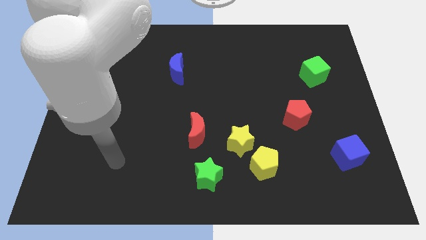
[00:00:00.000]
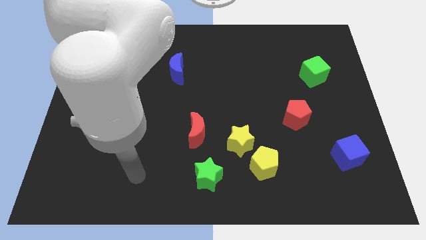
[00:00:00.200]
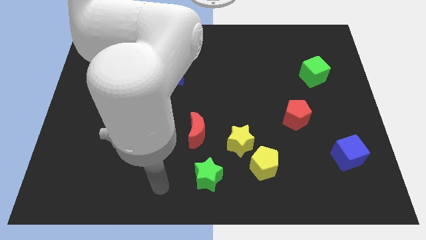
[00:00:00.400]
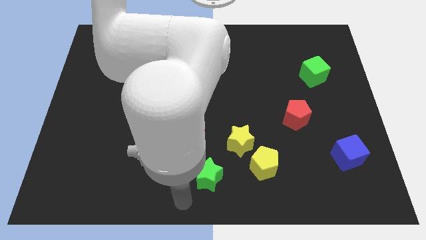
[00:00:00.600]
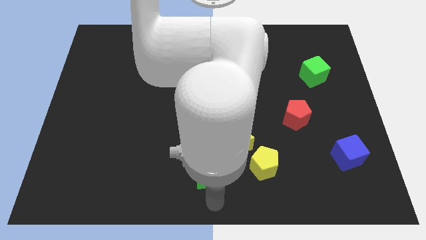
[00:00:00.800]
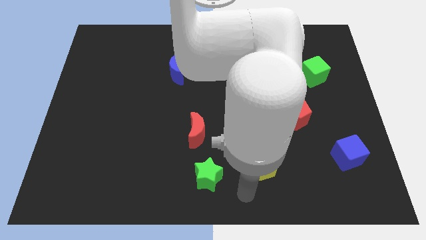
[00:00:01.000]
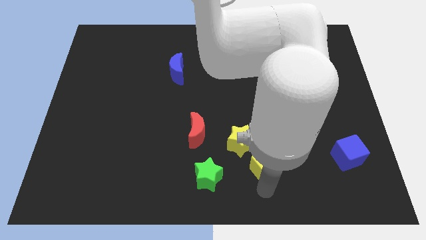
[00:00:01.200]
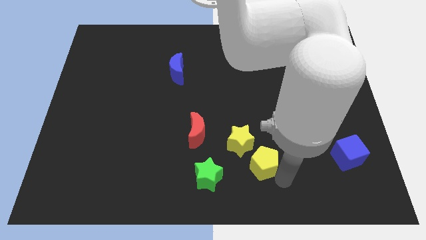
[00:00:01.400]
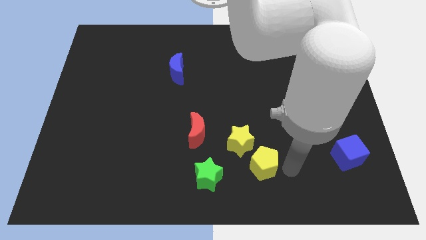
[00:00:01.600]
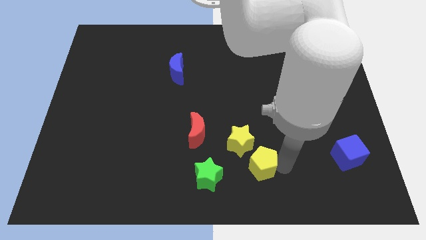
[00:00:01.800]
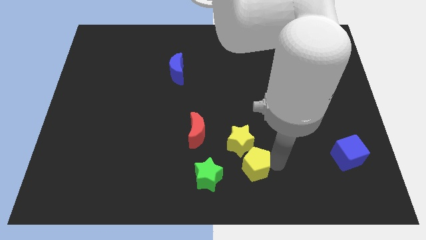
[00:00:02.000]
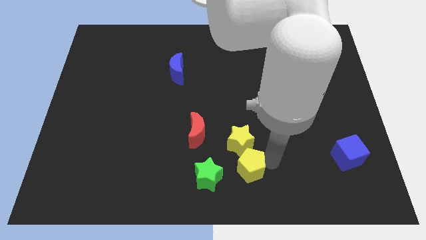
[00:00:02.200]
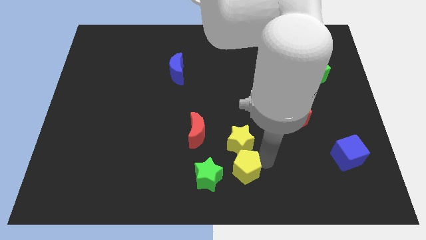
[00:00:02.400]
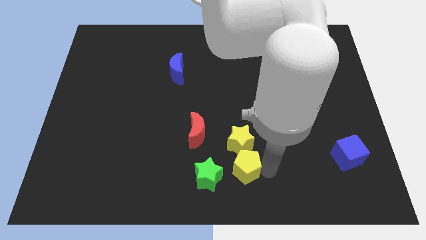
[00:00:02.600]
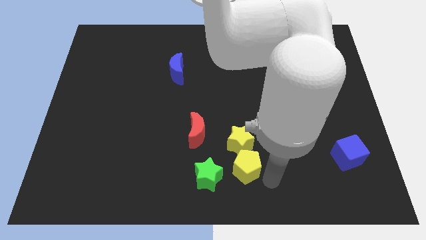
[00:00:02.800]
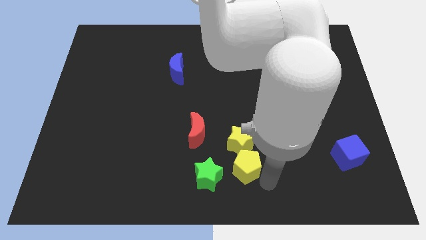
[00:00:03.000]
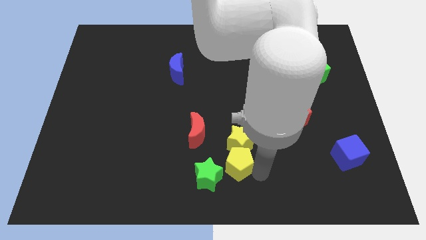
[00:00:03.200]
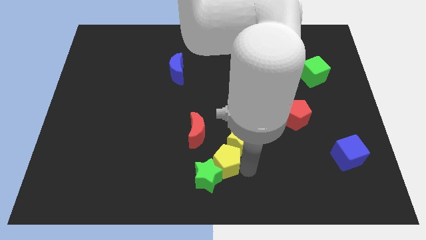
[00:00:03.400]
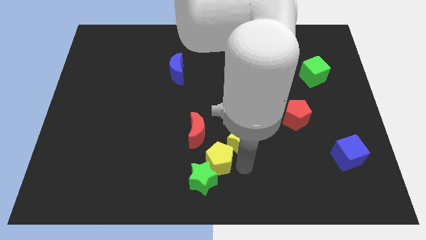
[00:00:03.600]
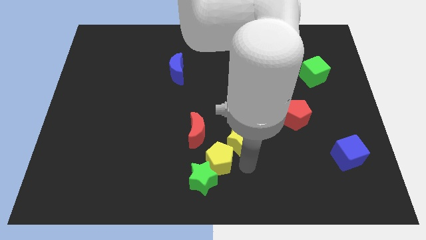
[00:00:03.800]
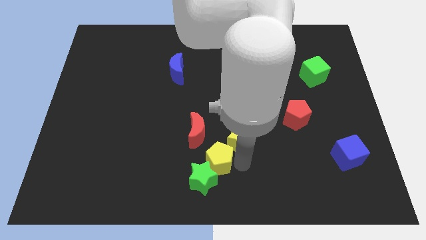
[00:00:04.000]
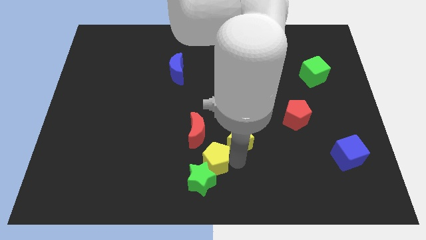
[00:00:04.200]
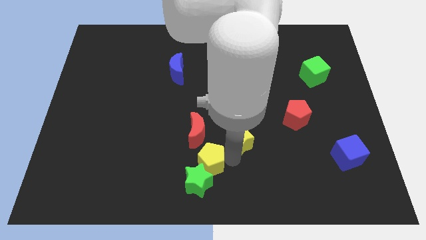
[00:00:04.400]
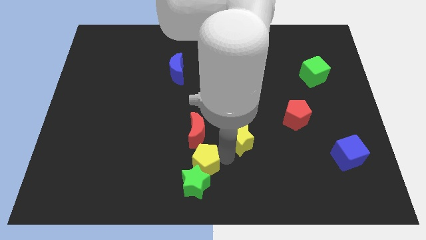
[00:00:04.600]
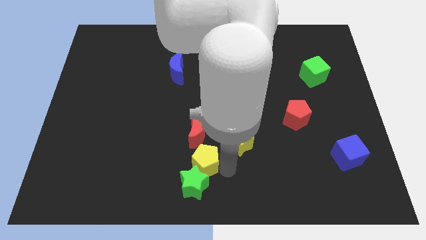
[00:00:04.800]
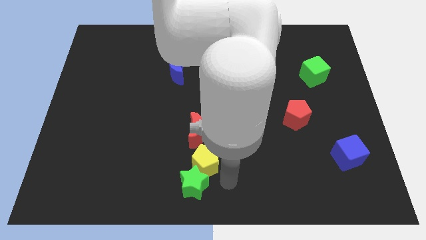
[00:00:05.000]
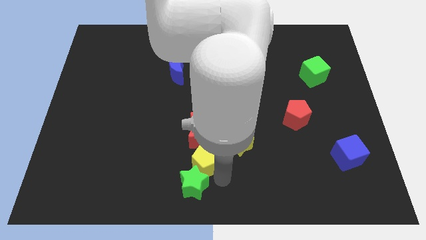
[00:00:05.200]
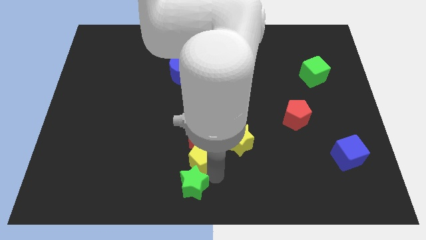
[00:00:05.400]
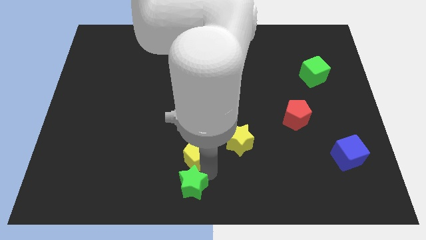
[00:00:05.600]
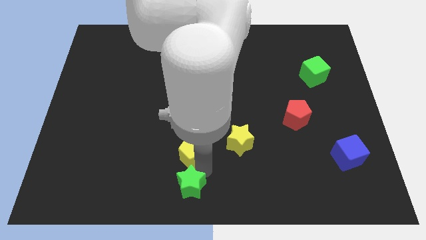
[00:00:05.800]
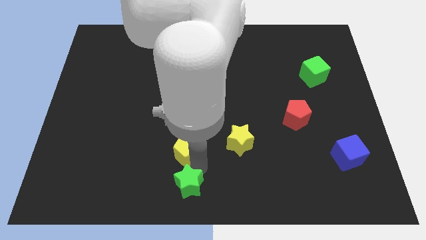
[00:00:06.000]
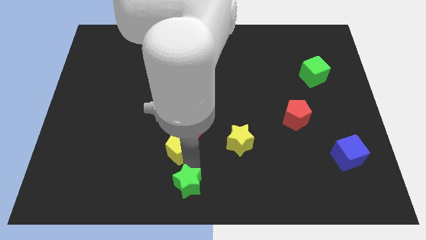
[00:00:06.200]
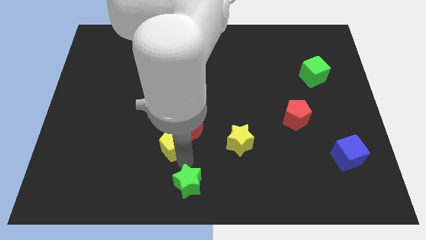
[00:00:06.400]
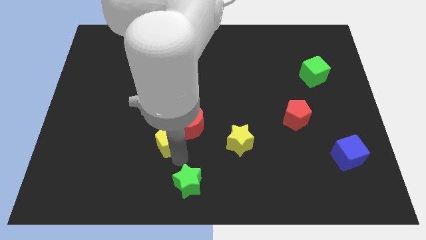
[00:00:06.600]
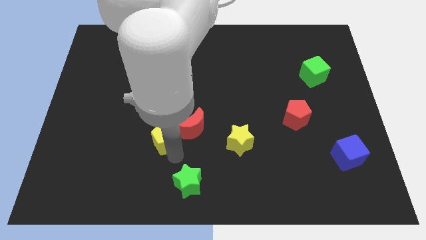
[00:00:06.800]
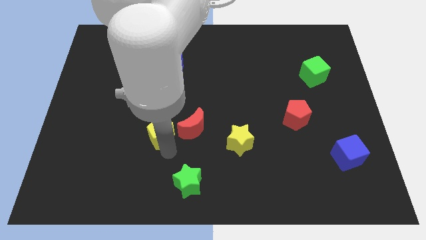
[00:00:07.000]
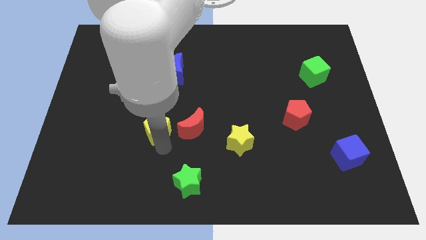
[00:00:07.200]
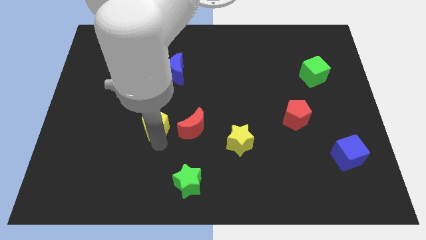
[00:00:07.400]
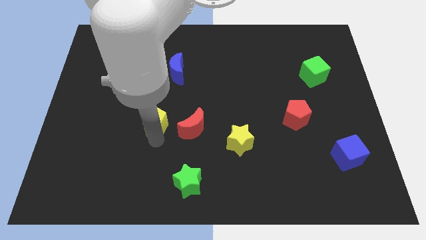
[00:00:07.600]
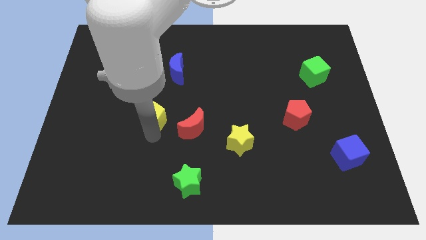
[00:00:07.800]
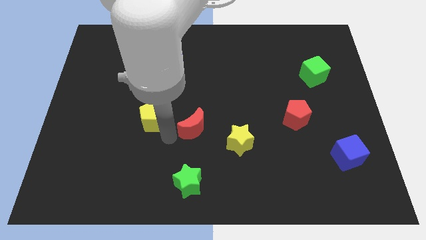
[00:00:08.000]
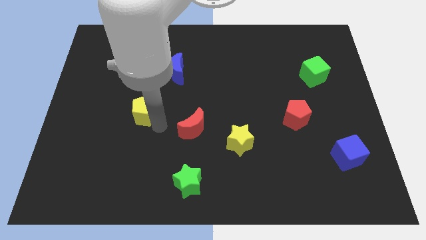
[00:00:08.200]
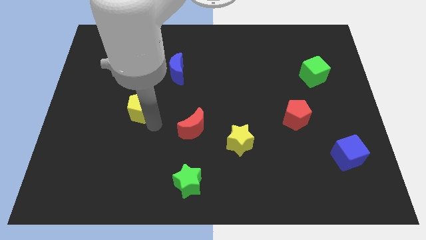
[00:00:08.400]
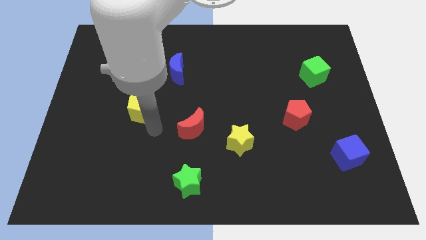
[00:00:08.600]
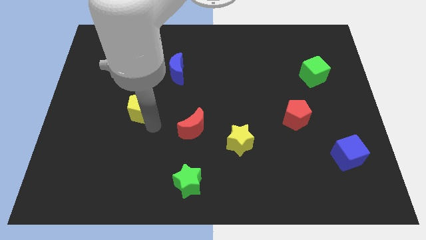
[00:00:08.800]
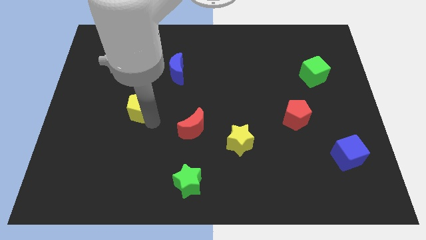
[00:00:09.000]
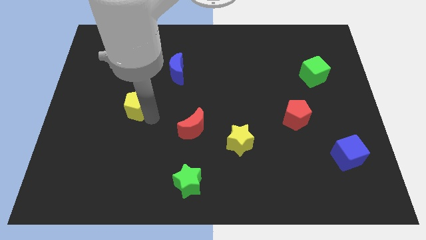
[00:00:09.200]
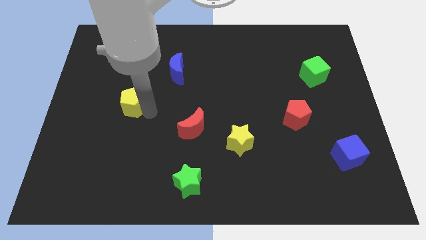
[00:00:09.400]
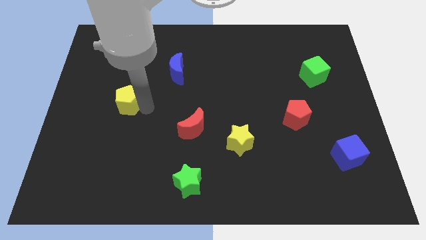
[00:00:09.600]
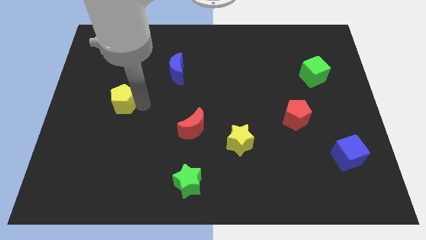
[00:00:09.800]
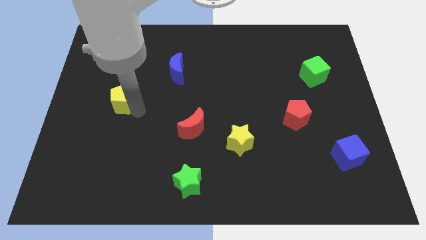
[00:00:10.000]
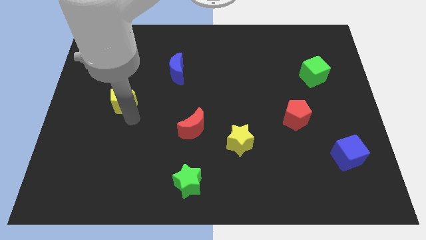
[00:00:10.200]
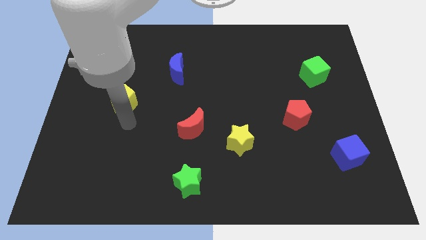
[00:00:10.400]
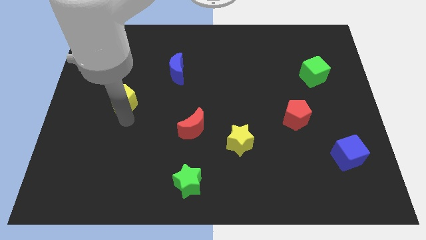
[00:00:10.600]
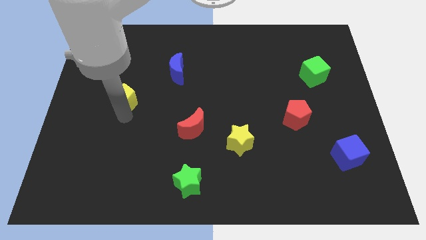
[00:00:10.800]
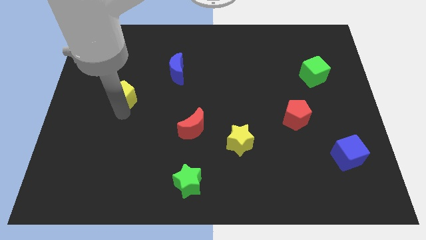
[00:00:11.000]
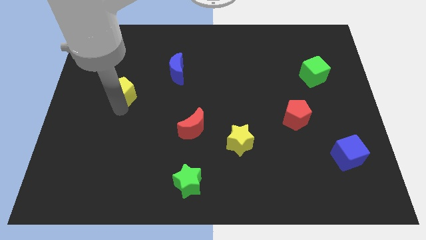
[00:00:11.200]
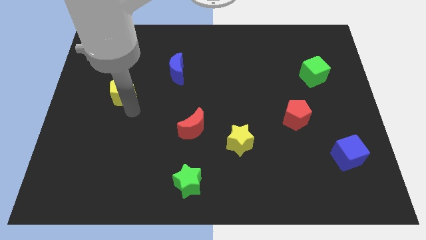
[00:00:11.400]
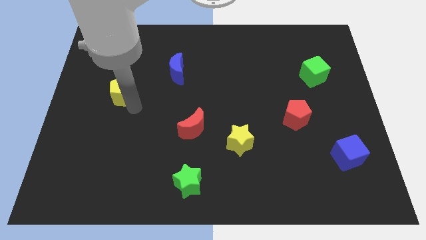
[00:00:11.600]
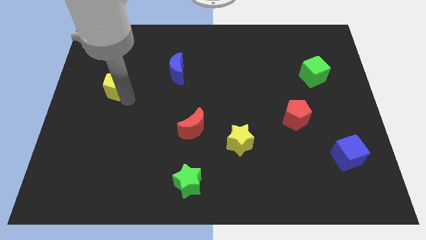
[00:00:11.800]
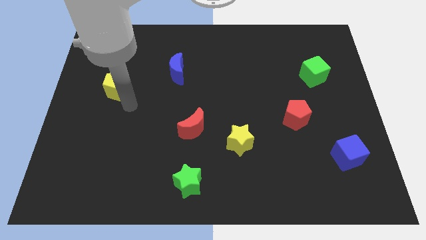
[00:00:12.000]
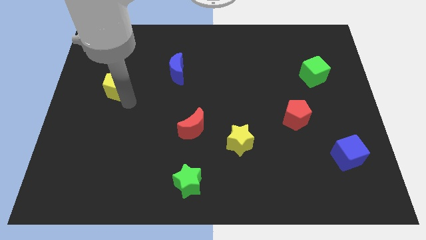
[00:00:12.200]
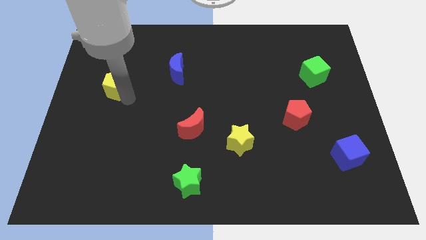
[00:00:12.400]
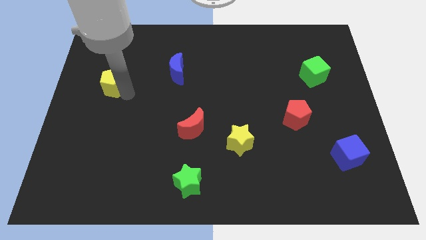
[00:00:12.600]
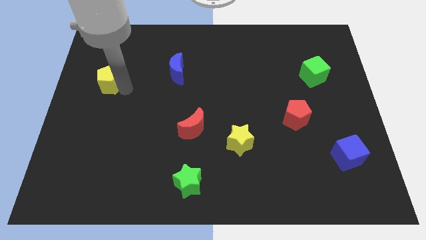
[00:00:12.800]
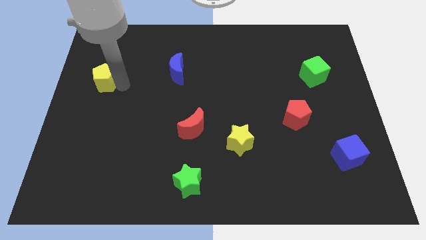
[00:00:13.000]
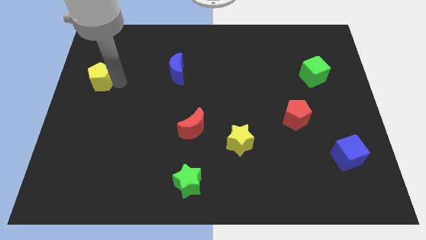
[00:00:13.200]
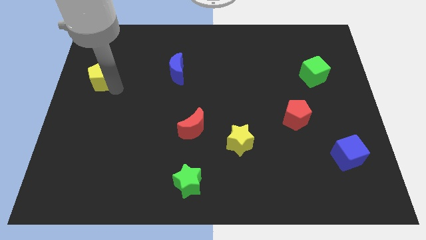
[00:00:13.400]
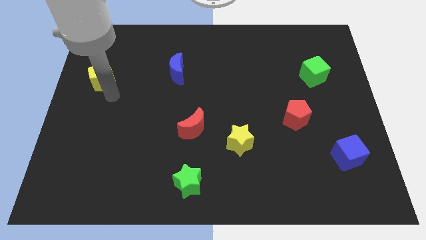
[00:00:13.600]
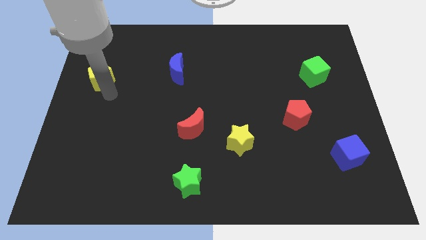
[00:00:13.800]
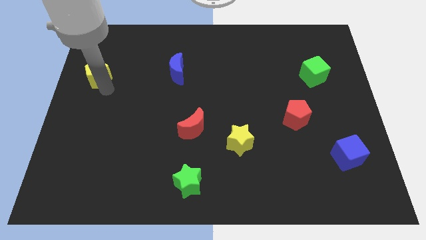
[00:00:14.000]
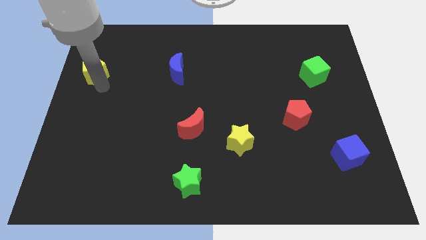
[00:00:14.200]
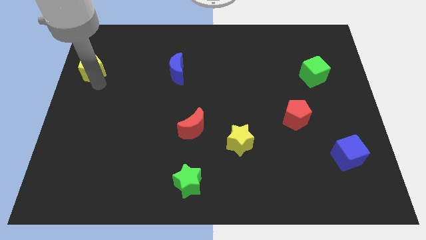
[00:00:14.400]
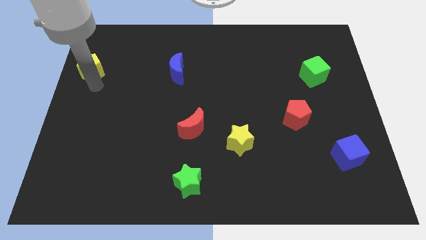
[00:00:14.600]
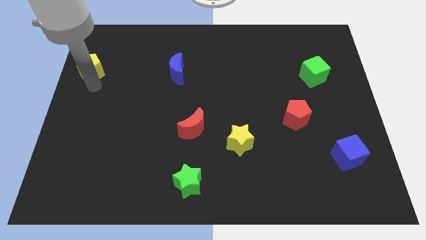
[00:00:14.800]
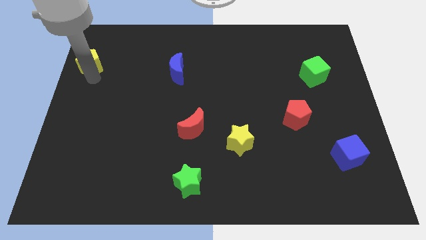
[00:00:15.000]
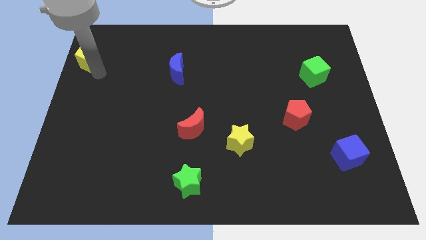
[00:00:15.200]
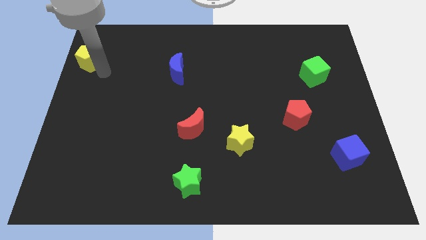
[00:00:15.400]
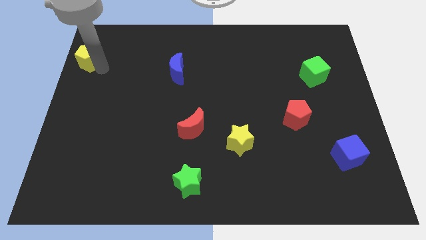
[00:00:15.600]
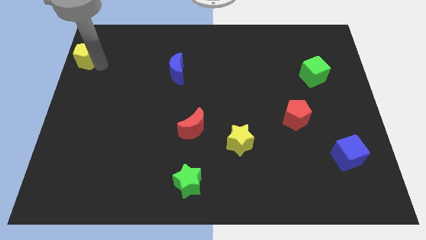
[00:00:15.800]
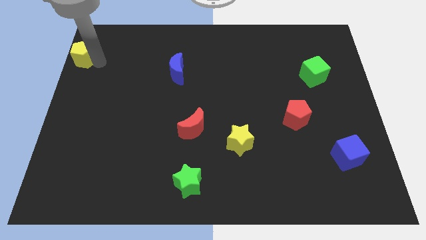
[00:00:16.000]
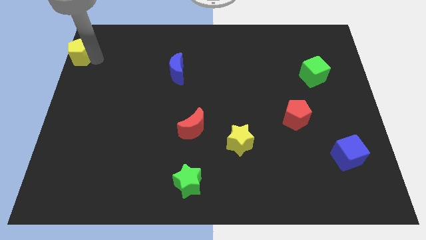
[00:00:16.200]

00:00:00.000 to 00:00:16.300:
push the yellow pentagon to the top left
